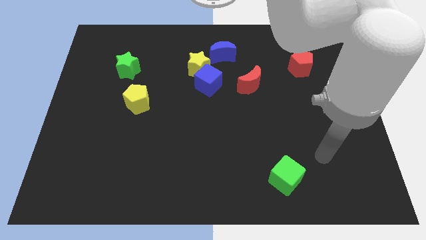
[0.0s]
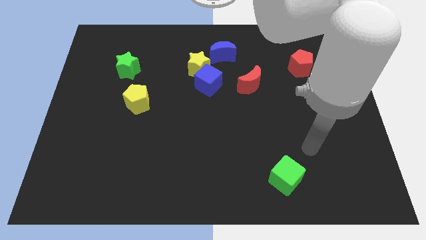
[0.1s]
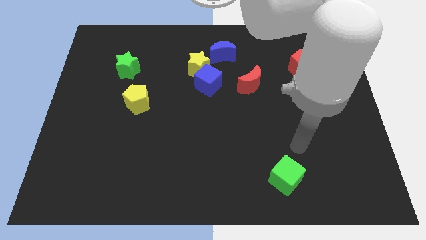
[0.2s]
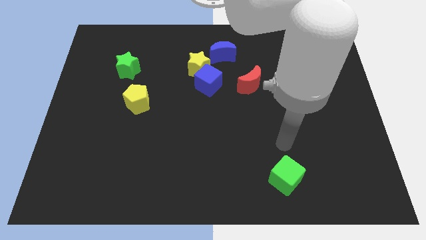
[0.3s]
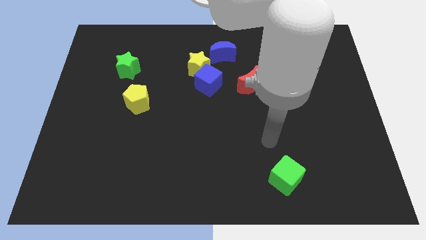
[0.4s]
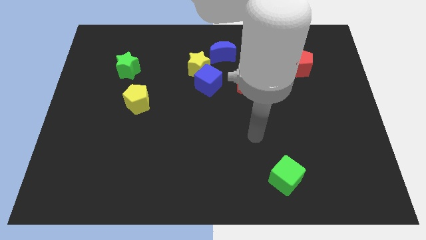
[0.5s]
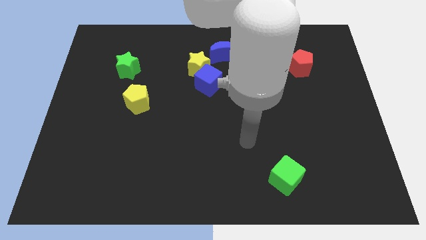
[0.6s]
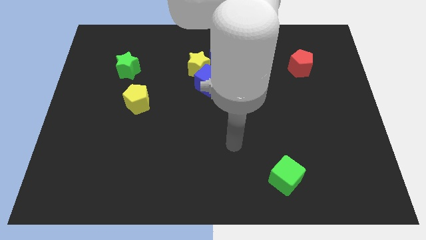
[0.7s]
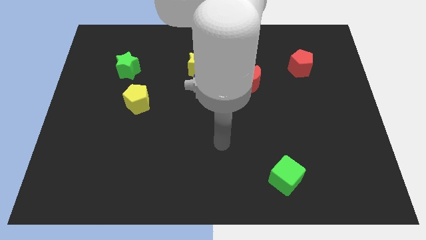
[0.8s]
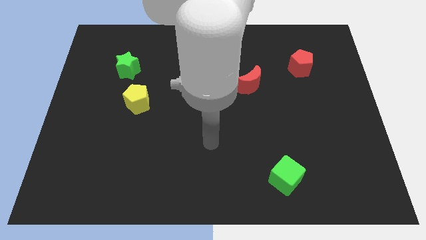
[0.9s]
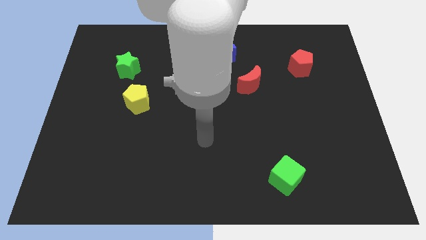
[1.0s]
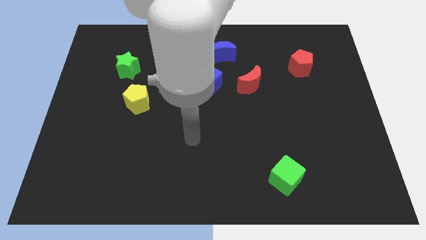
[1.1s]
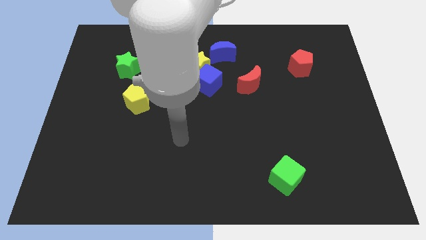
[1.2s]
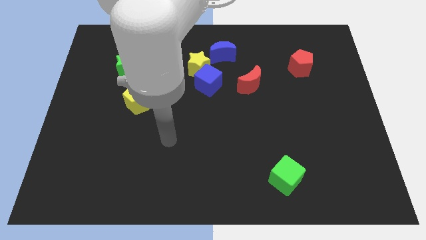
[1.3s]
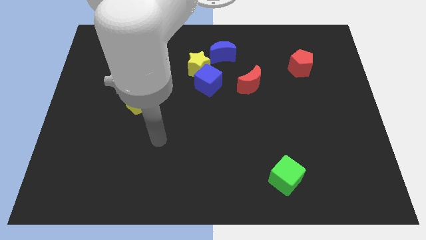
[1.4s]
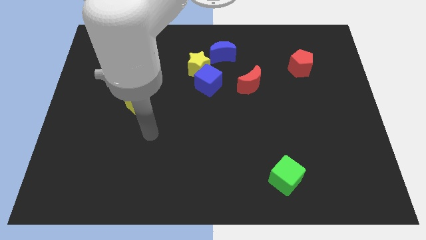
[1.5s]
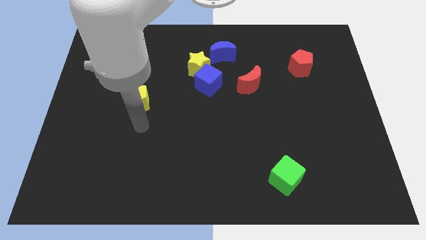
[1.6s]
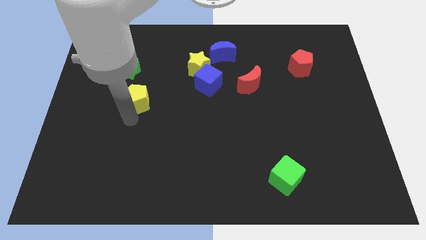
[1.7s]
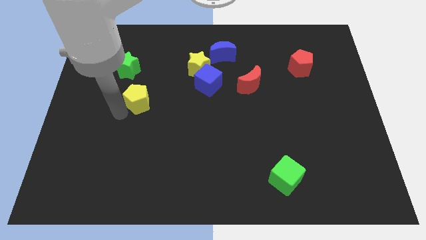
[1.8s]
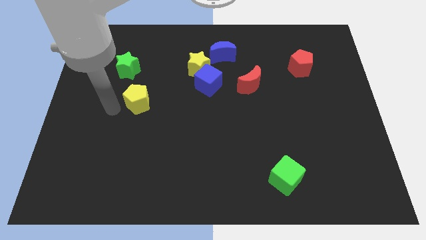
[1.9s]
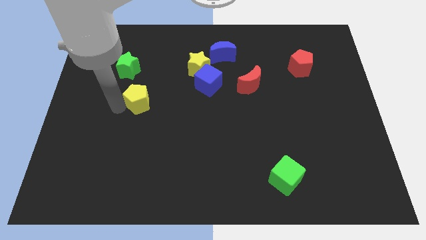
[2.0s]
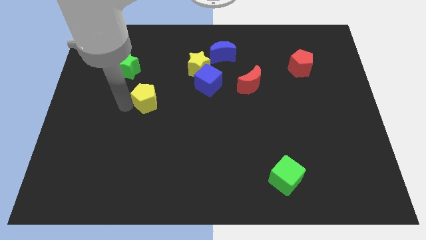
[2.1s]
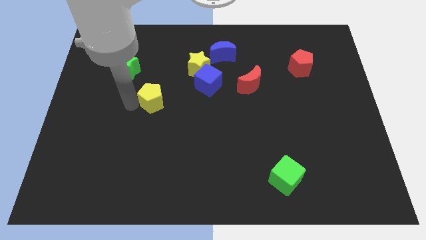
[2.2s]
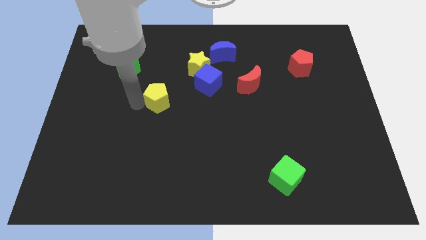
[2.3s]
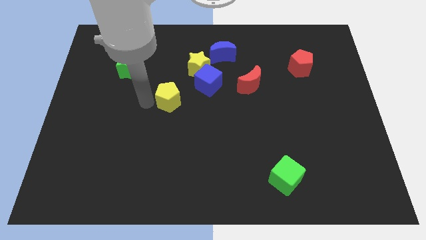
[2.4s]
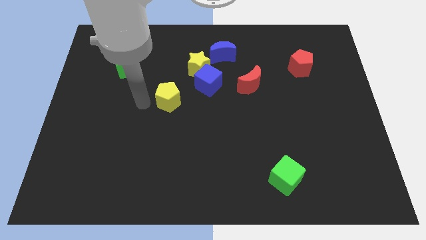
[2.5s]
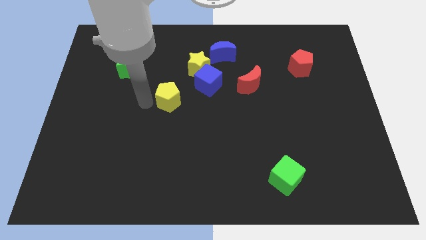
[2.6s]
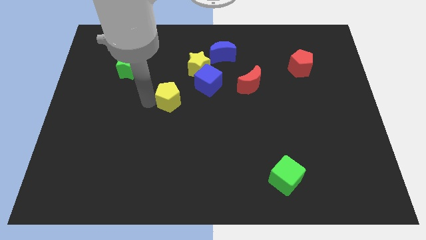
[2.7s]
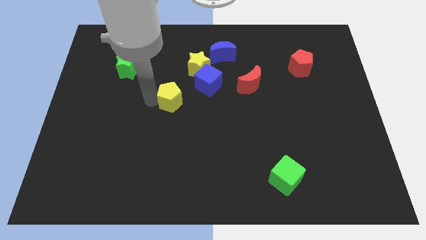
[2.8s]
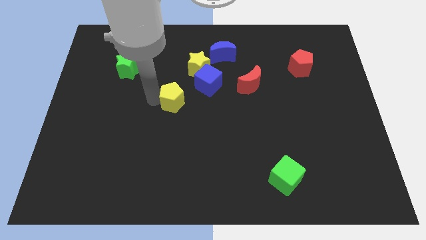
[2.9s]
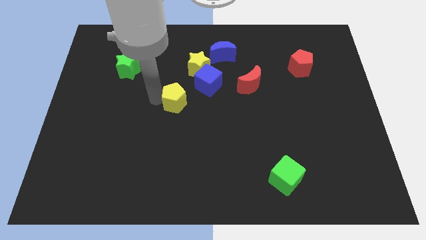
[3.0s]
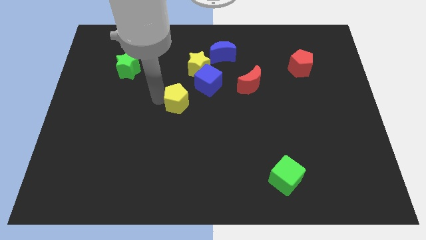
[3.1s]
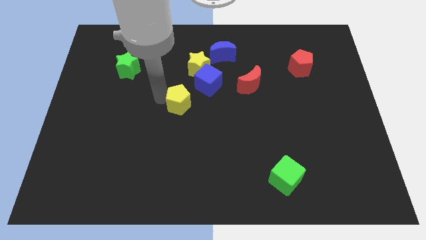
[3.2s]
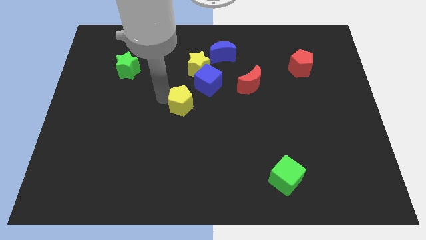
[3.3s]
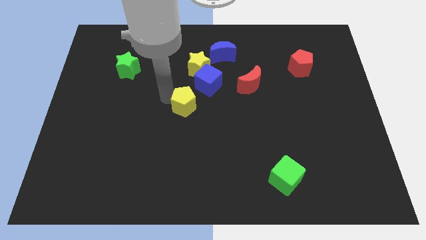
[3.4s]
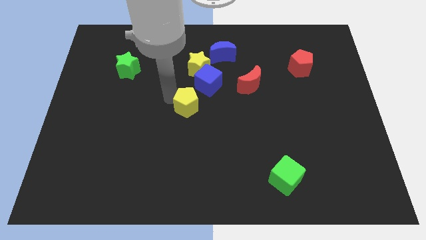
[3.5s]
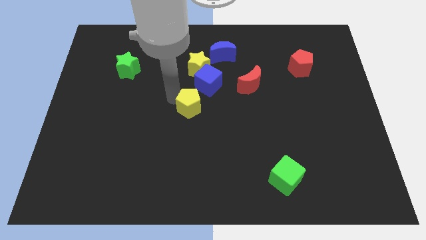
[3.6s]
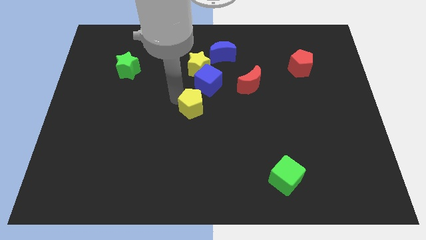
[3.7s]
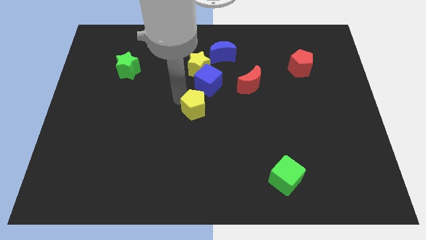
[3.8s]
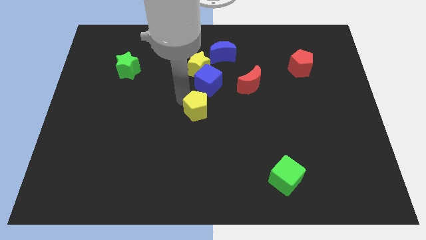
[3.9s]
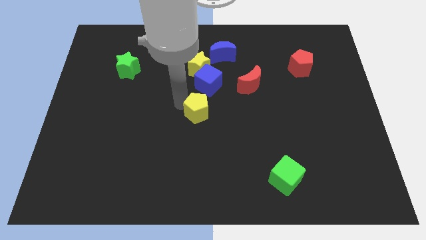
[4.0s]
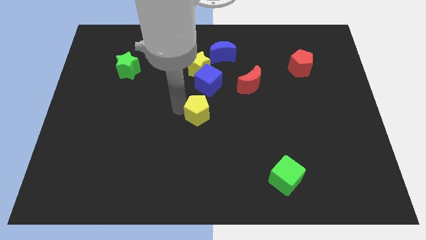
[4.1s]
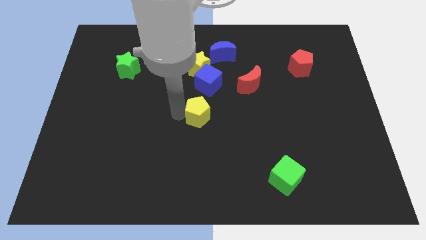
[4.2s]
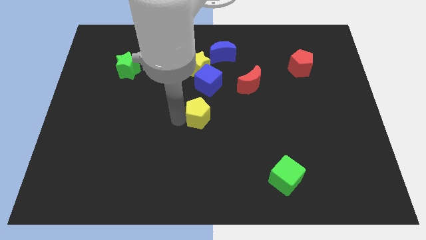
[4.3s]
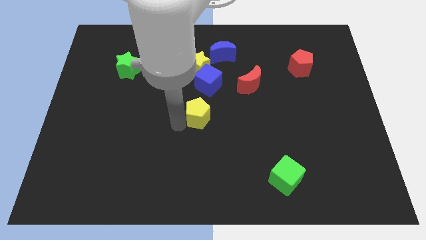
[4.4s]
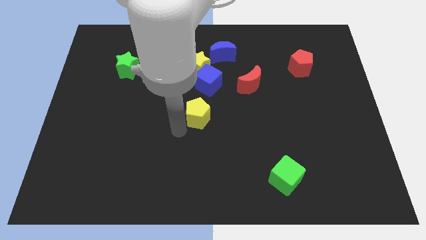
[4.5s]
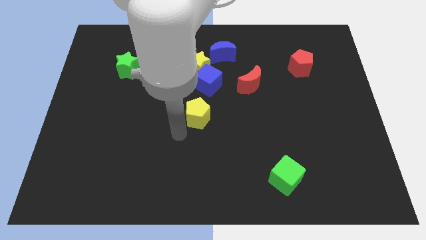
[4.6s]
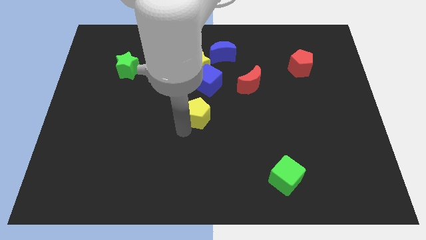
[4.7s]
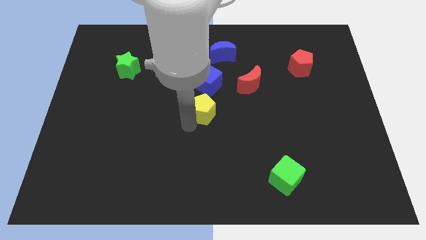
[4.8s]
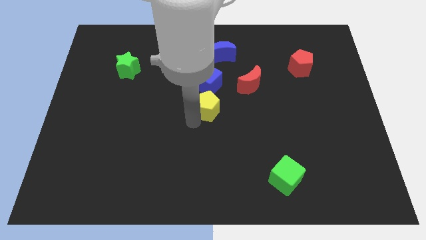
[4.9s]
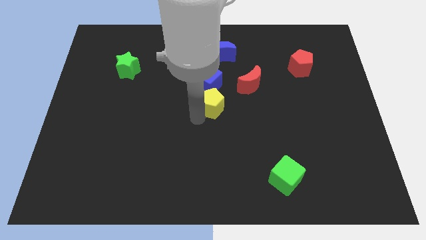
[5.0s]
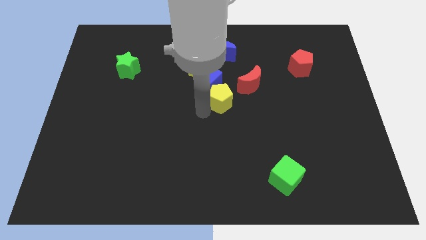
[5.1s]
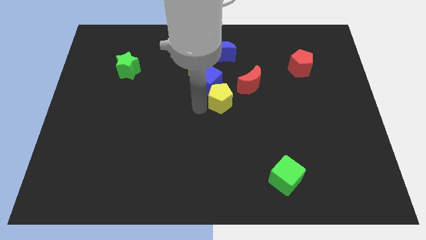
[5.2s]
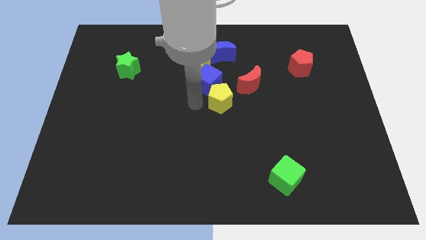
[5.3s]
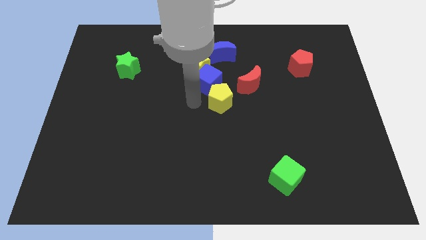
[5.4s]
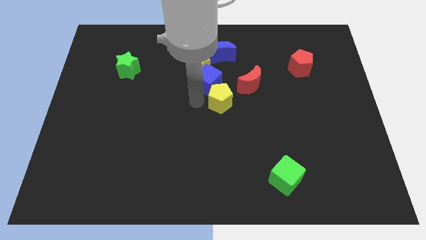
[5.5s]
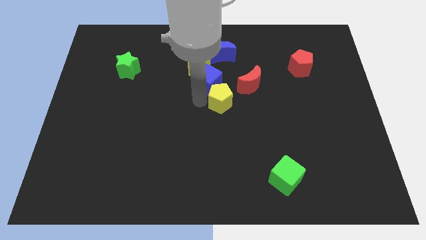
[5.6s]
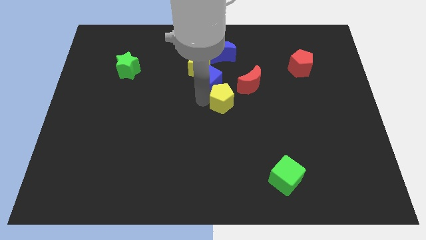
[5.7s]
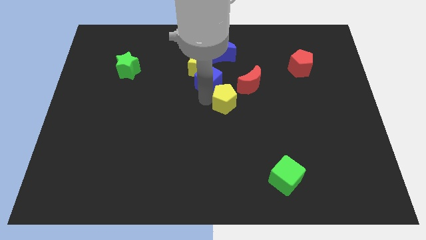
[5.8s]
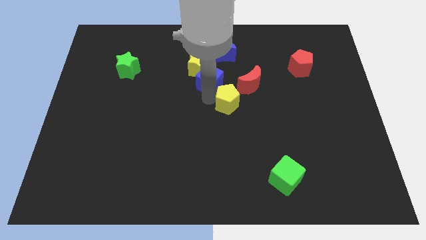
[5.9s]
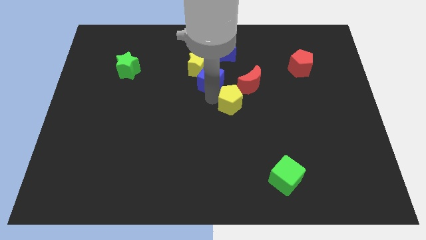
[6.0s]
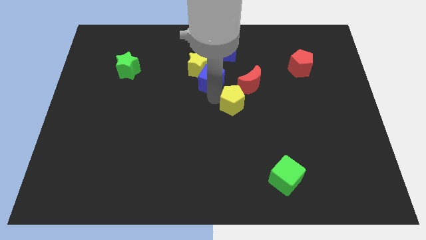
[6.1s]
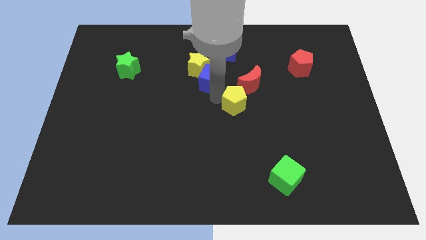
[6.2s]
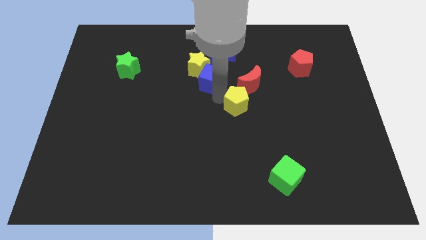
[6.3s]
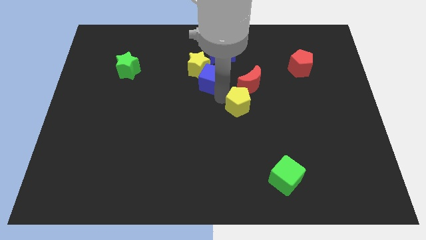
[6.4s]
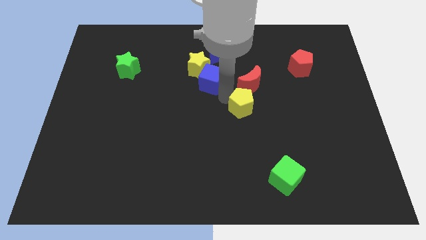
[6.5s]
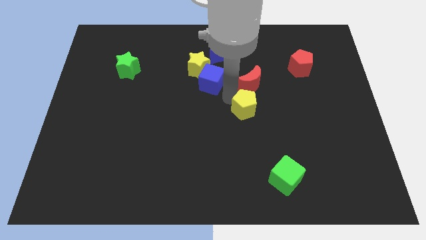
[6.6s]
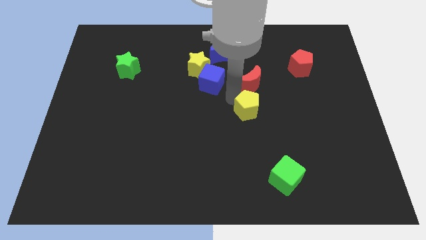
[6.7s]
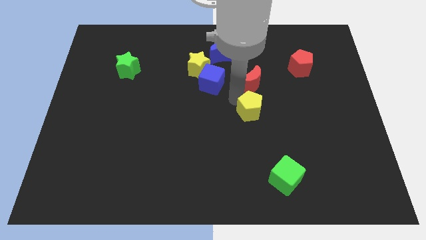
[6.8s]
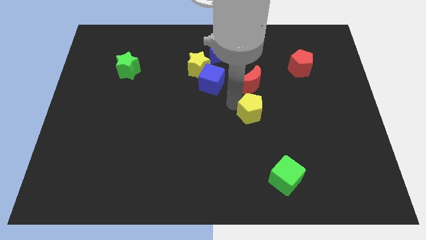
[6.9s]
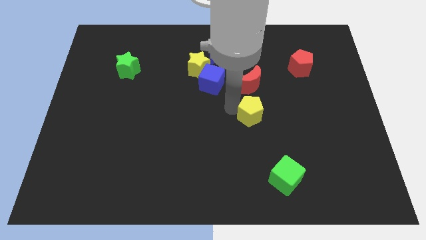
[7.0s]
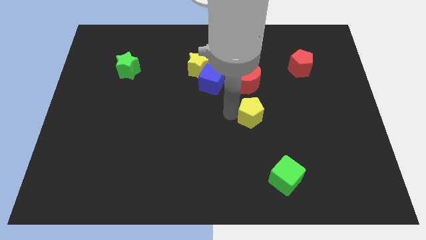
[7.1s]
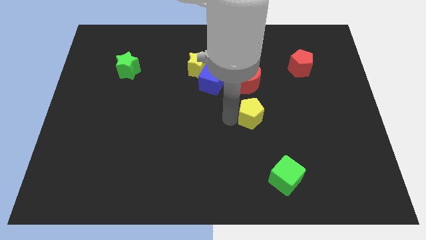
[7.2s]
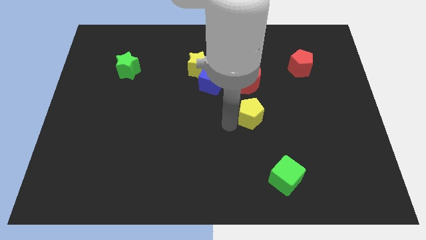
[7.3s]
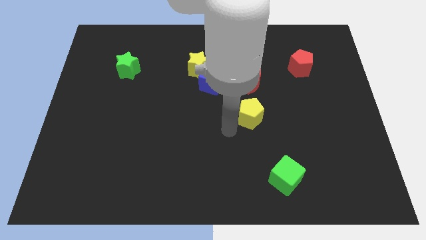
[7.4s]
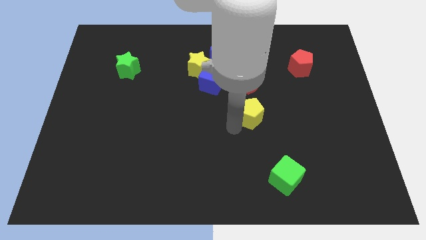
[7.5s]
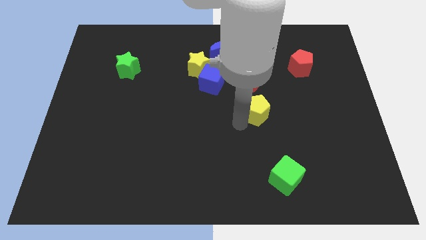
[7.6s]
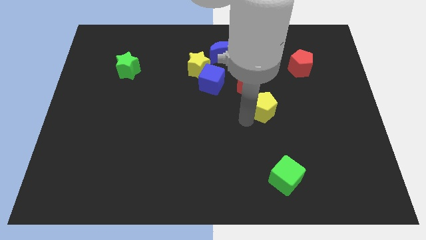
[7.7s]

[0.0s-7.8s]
slide the yellow pentagon to the bottom right of the red moon
